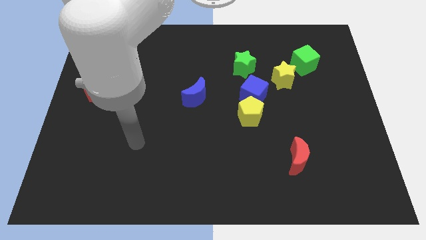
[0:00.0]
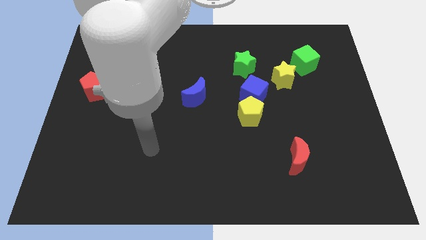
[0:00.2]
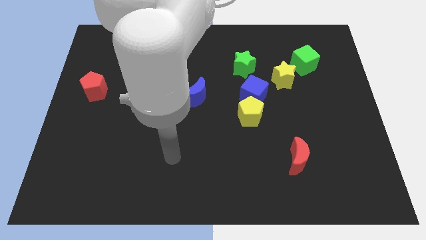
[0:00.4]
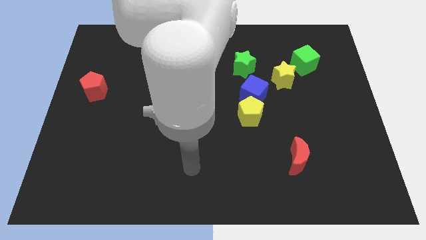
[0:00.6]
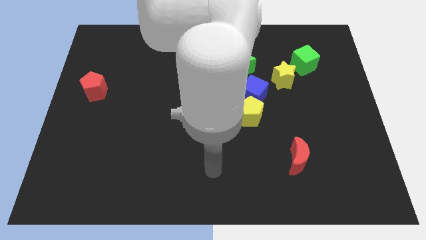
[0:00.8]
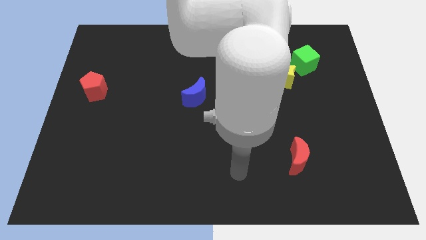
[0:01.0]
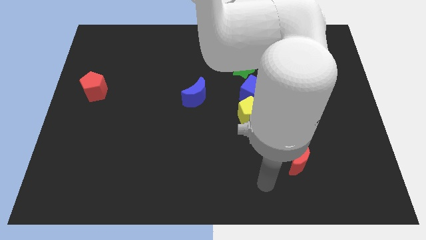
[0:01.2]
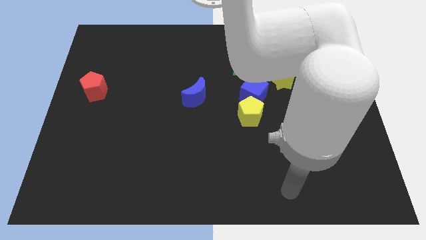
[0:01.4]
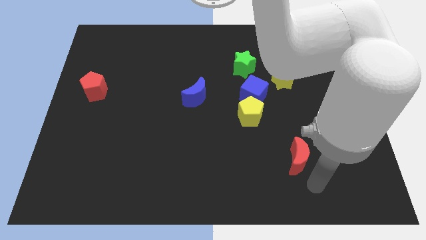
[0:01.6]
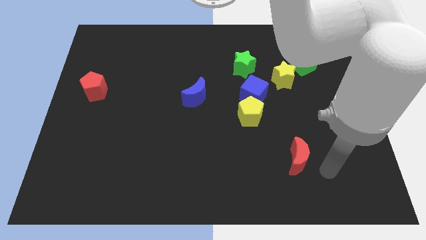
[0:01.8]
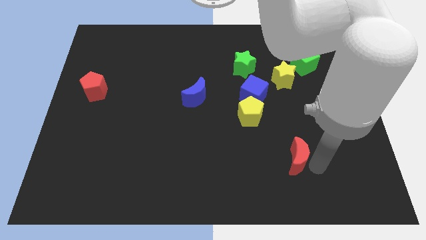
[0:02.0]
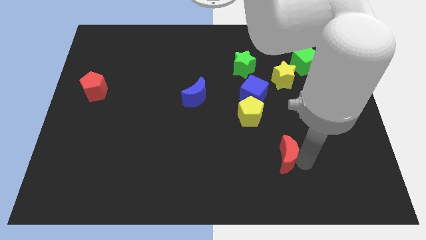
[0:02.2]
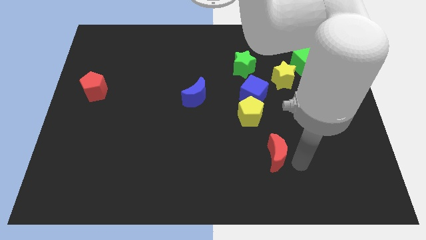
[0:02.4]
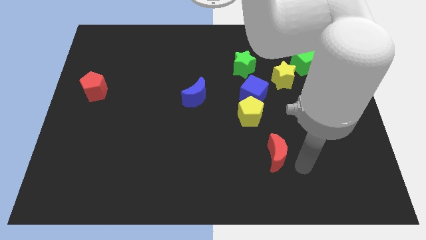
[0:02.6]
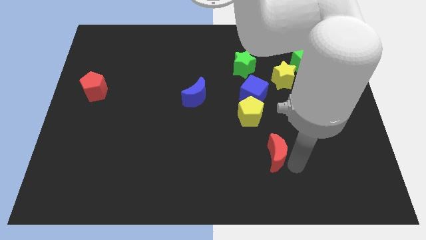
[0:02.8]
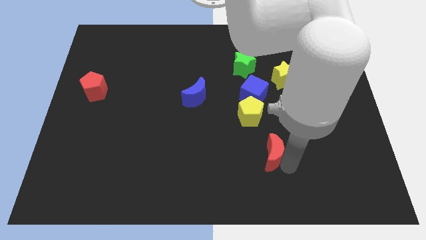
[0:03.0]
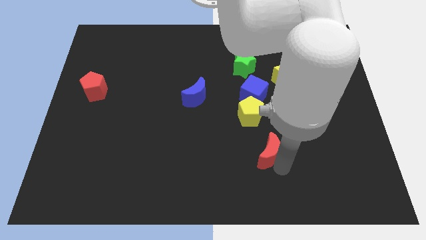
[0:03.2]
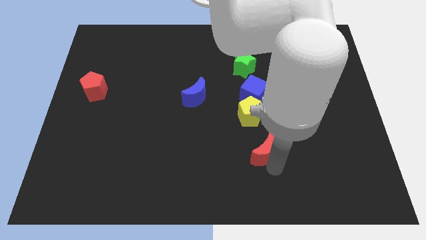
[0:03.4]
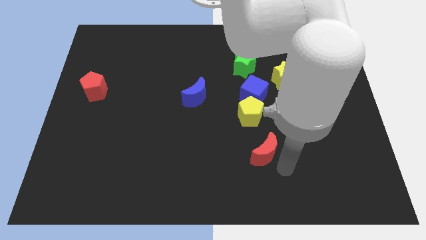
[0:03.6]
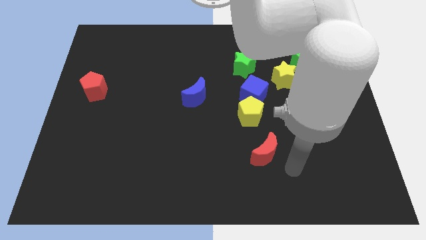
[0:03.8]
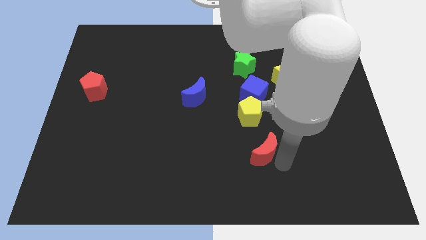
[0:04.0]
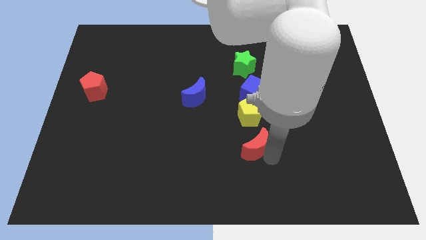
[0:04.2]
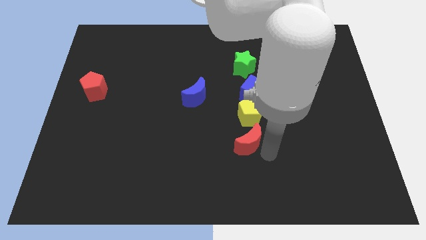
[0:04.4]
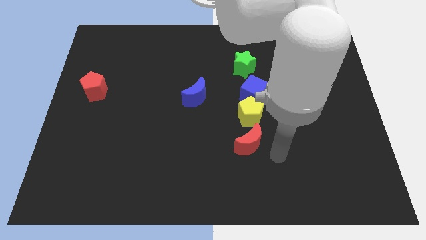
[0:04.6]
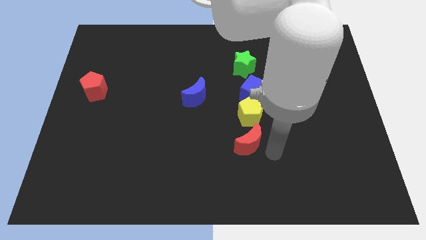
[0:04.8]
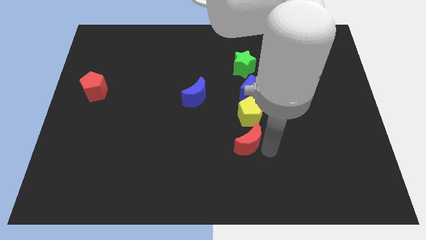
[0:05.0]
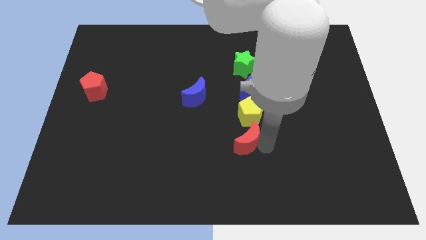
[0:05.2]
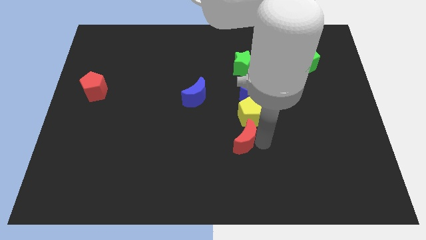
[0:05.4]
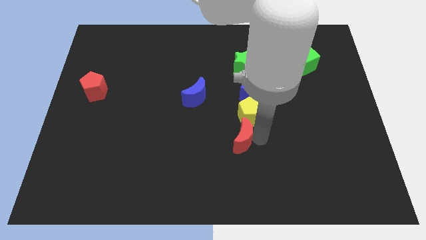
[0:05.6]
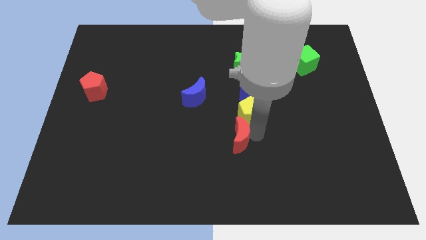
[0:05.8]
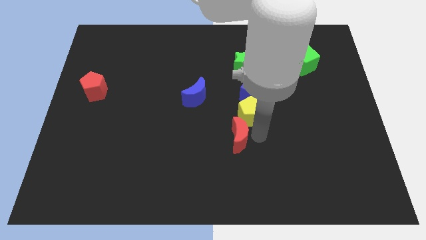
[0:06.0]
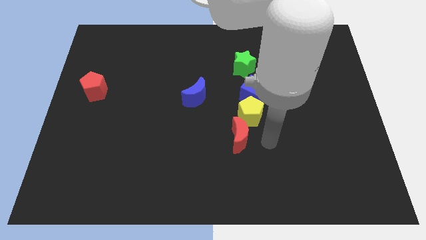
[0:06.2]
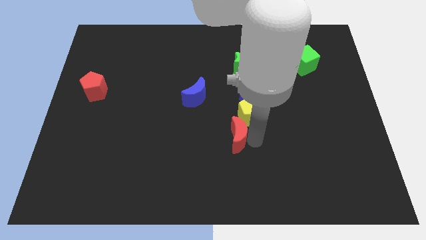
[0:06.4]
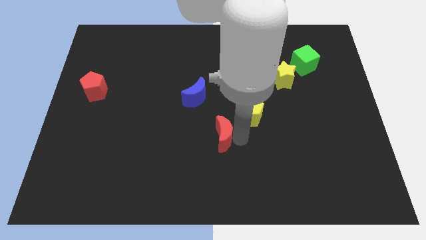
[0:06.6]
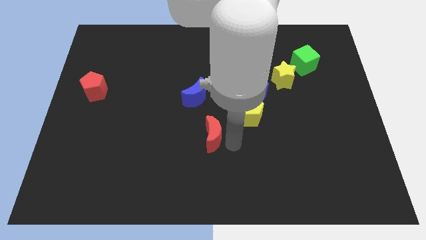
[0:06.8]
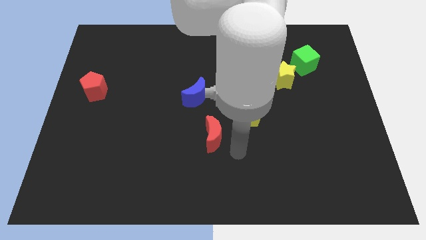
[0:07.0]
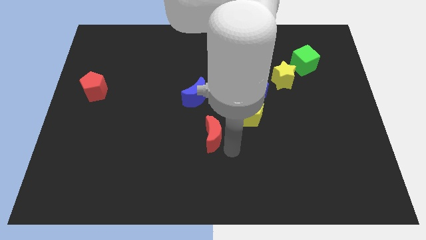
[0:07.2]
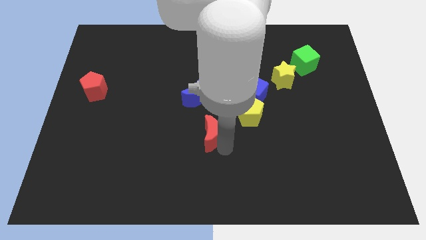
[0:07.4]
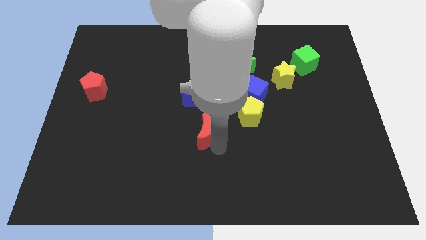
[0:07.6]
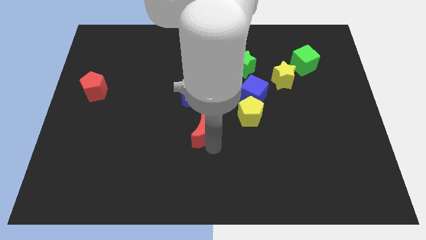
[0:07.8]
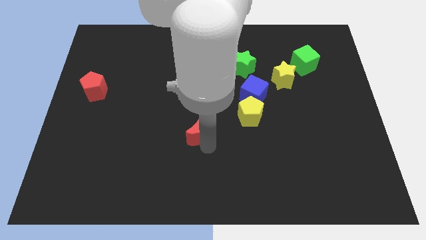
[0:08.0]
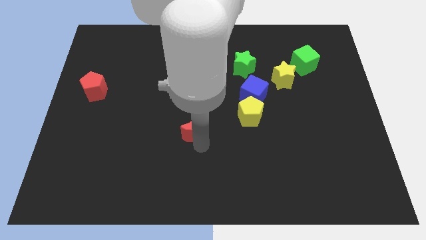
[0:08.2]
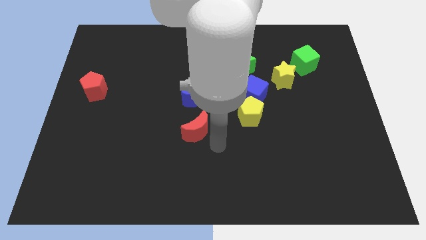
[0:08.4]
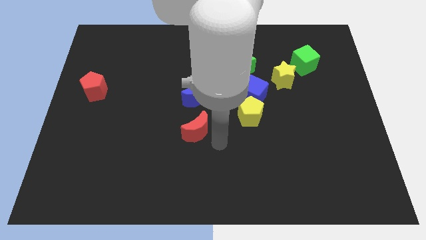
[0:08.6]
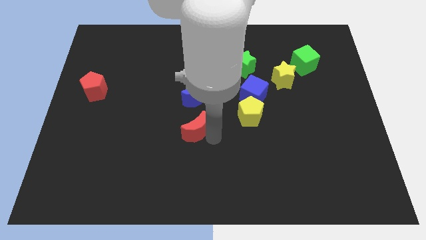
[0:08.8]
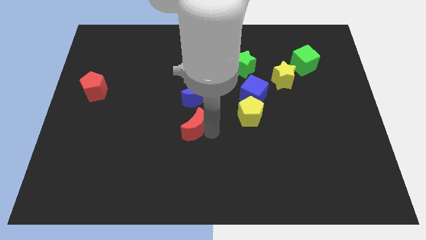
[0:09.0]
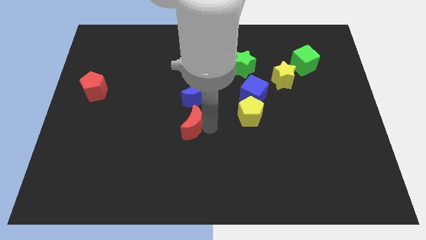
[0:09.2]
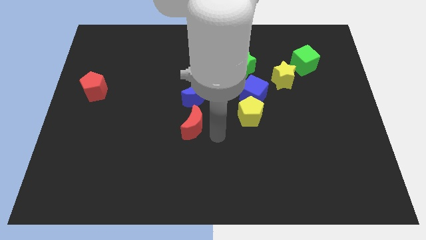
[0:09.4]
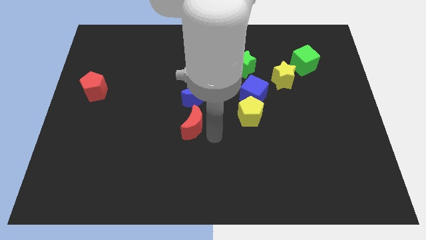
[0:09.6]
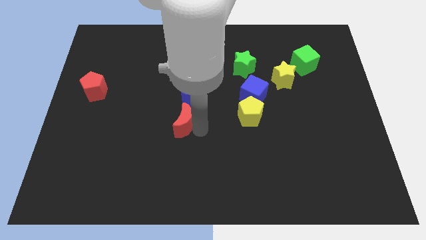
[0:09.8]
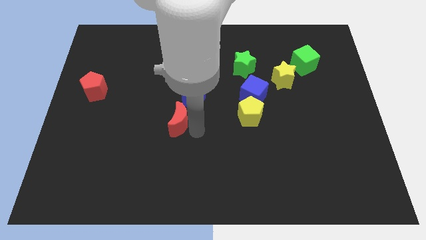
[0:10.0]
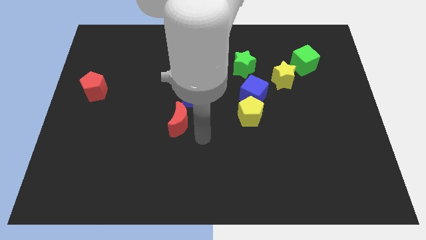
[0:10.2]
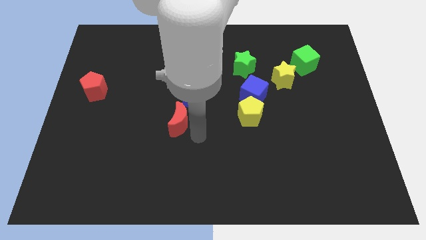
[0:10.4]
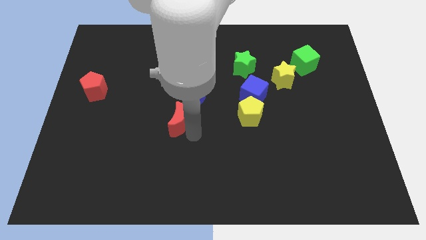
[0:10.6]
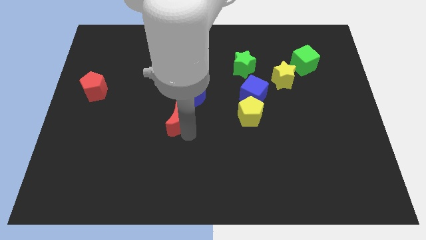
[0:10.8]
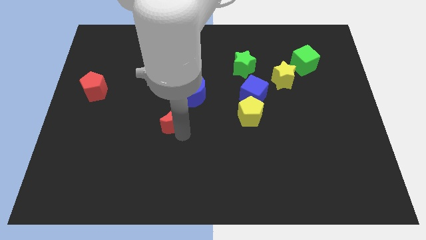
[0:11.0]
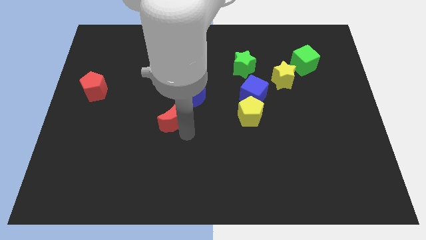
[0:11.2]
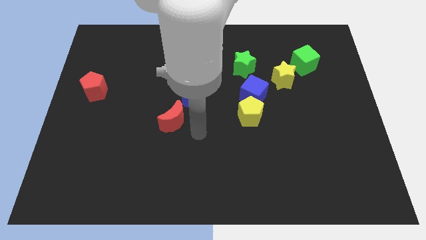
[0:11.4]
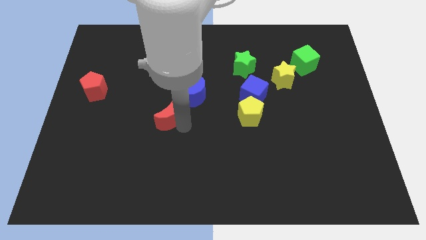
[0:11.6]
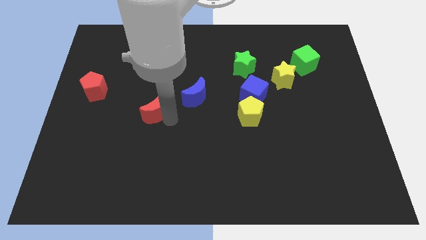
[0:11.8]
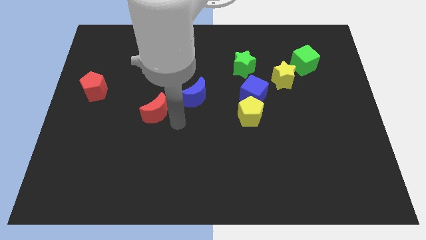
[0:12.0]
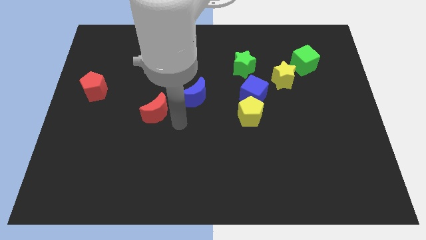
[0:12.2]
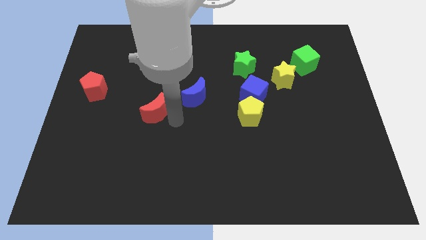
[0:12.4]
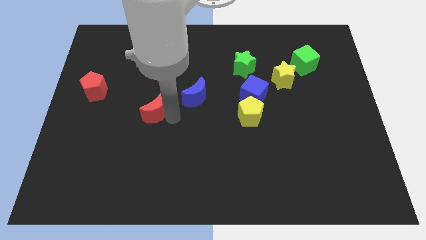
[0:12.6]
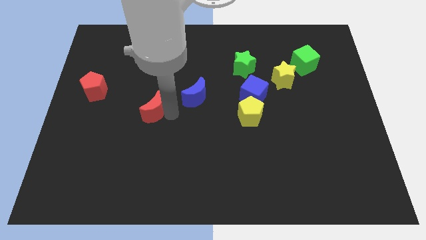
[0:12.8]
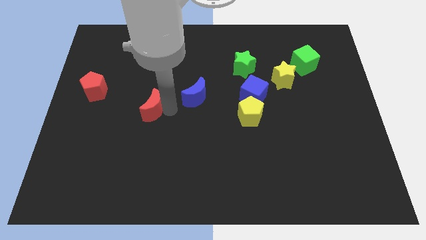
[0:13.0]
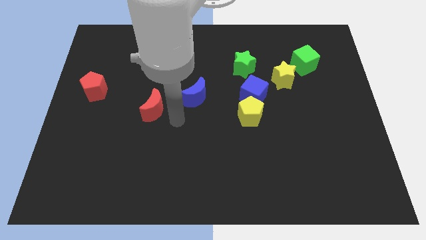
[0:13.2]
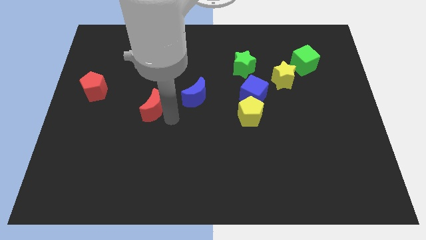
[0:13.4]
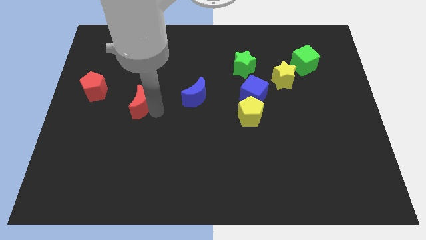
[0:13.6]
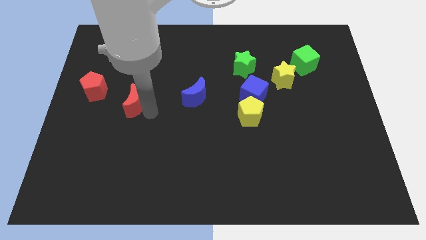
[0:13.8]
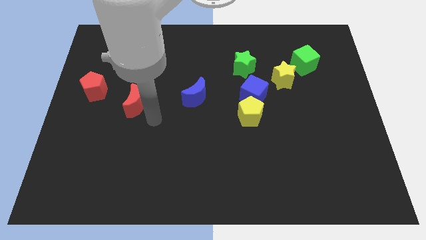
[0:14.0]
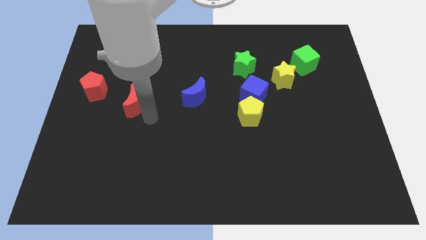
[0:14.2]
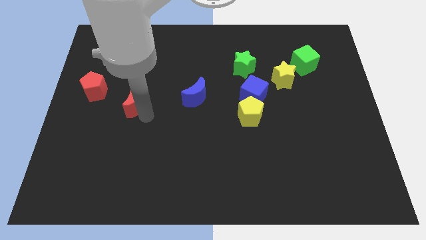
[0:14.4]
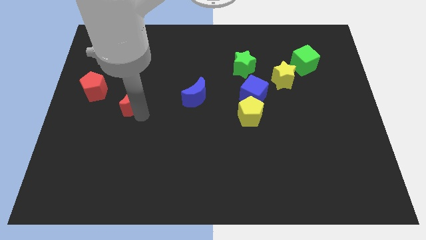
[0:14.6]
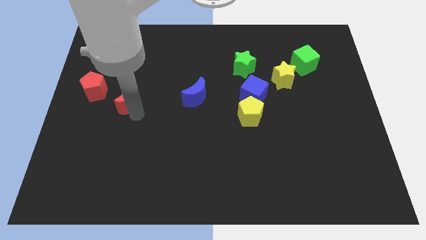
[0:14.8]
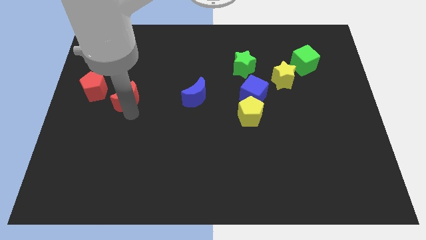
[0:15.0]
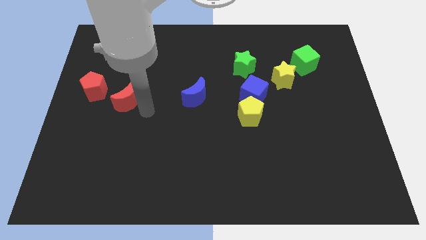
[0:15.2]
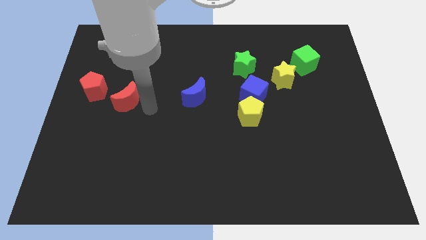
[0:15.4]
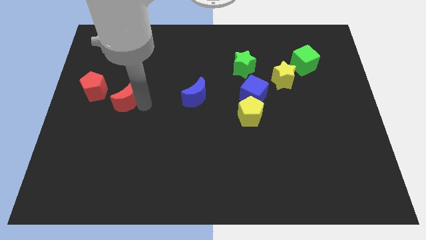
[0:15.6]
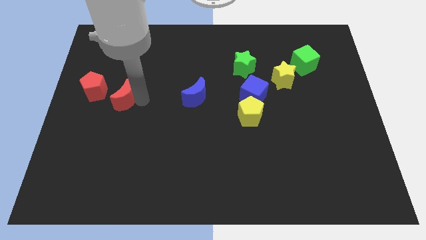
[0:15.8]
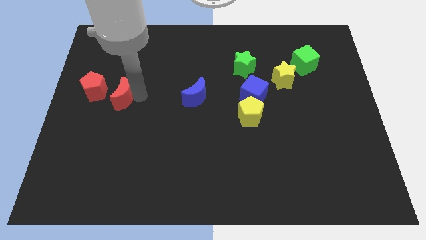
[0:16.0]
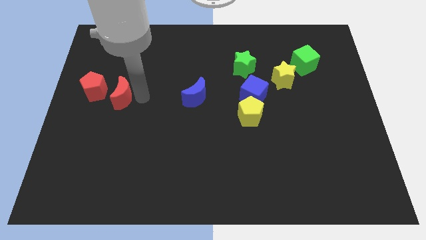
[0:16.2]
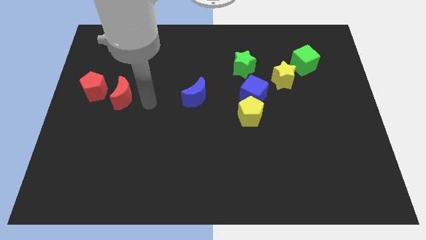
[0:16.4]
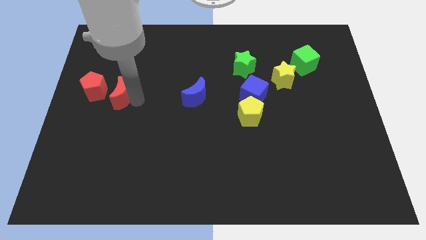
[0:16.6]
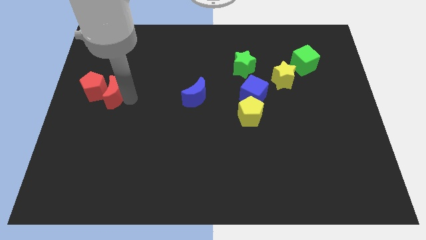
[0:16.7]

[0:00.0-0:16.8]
put the red moon to the red pentagon
